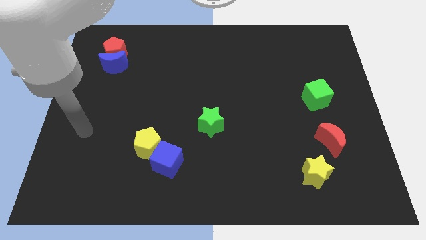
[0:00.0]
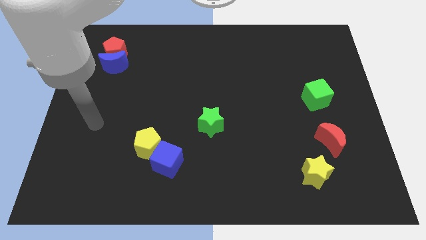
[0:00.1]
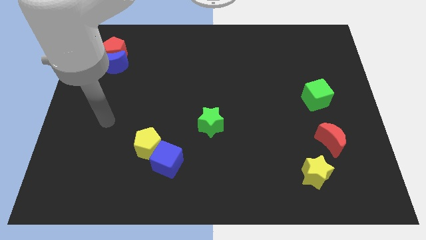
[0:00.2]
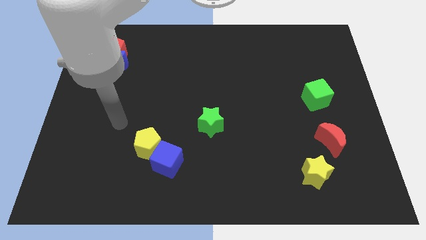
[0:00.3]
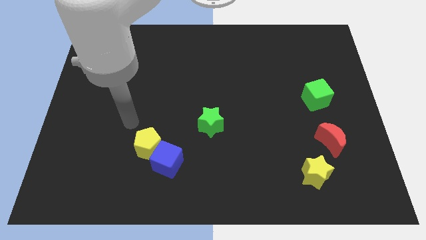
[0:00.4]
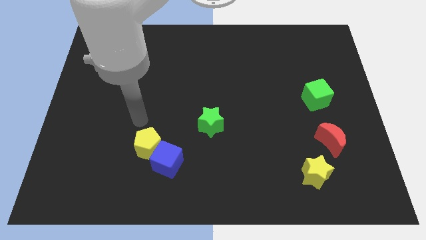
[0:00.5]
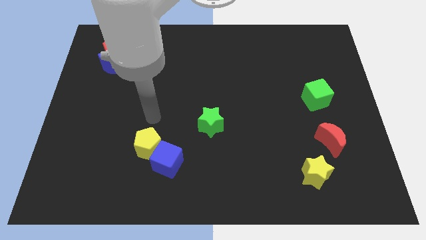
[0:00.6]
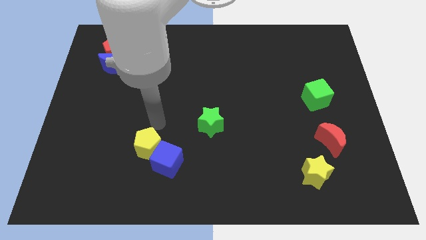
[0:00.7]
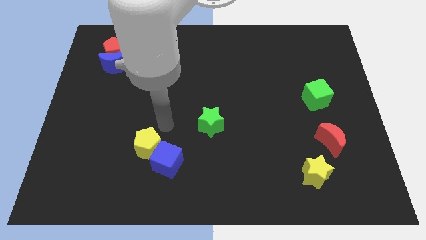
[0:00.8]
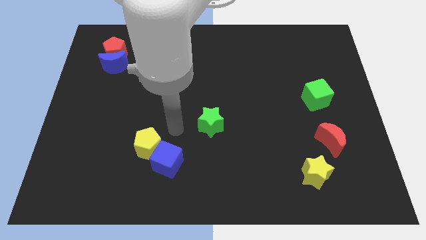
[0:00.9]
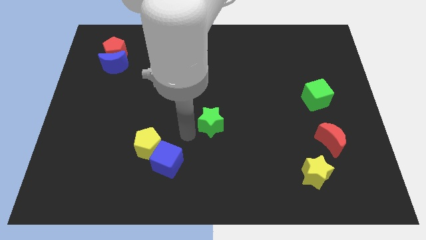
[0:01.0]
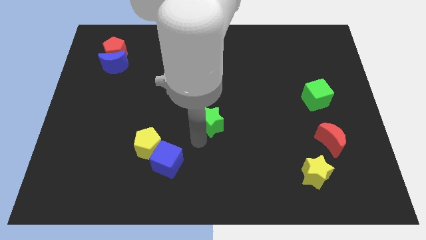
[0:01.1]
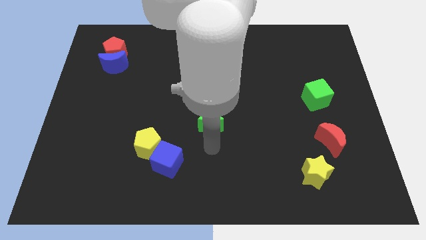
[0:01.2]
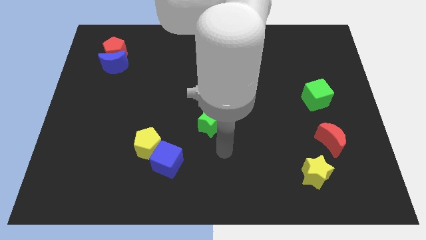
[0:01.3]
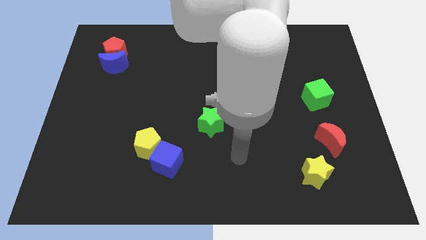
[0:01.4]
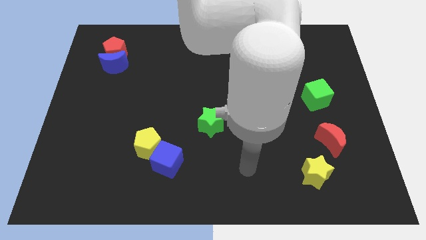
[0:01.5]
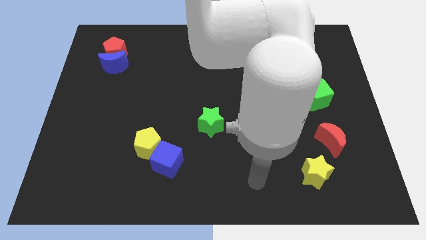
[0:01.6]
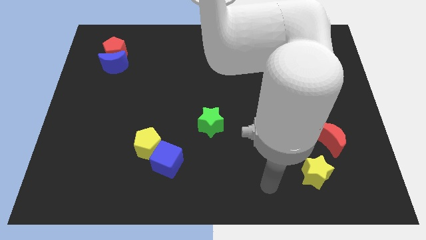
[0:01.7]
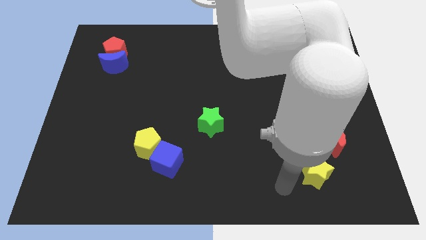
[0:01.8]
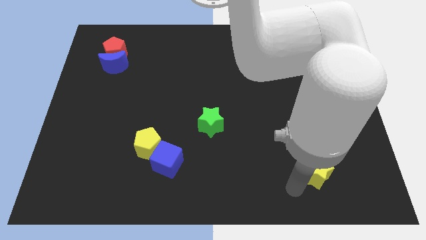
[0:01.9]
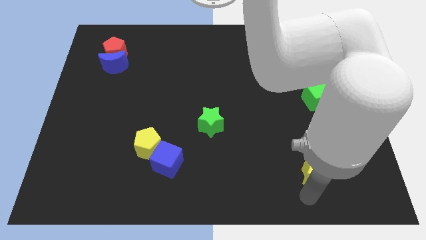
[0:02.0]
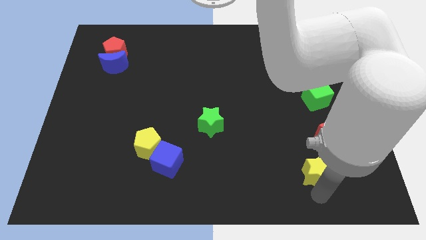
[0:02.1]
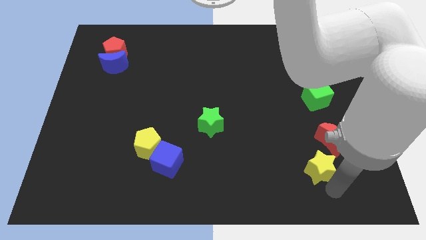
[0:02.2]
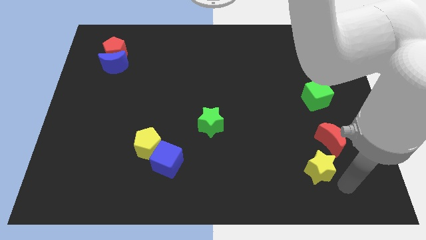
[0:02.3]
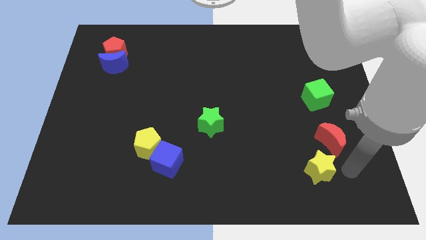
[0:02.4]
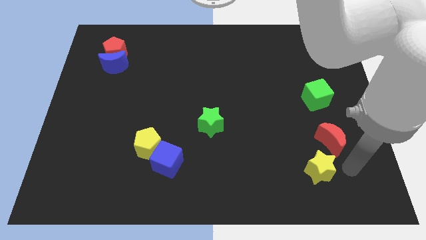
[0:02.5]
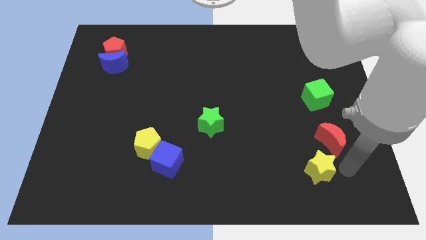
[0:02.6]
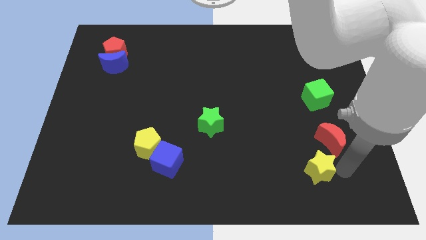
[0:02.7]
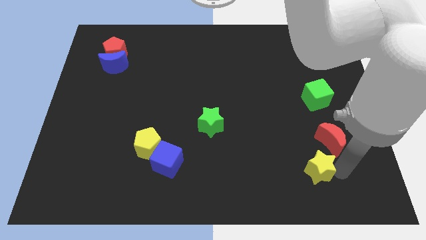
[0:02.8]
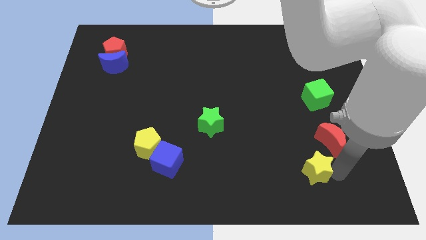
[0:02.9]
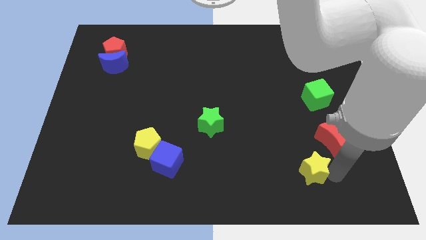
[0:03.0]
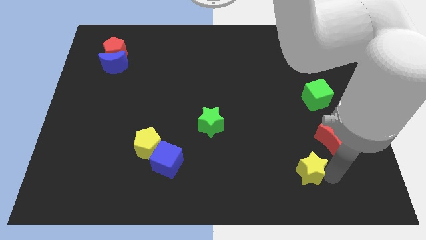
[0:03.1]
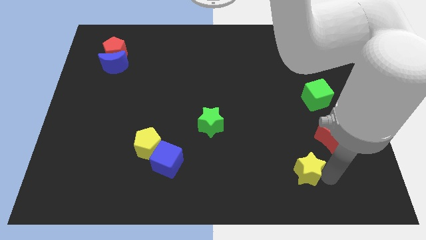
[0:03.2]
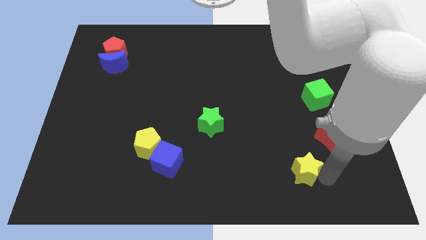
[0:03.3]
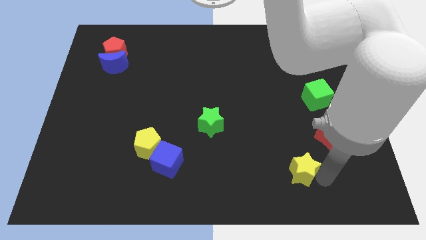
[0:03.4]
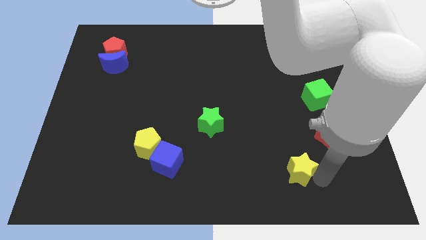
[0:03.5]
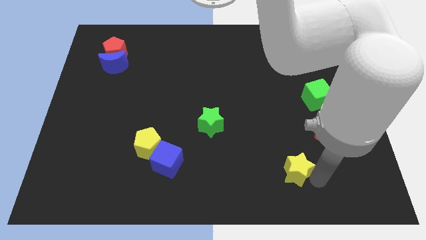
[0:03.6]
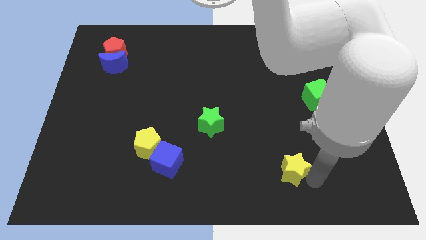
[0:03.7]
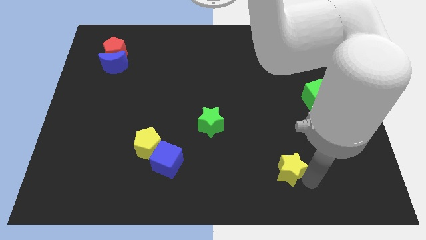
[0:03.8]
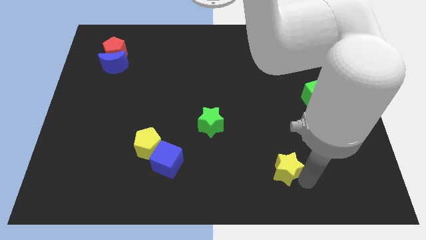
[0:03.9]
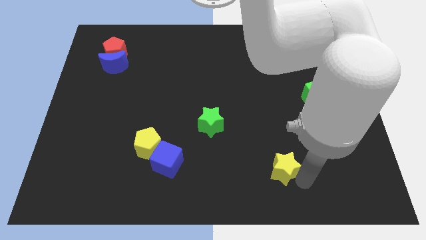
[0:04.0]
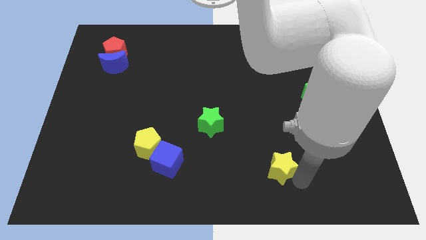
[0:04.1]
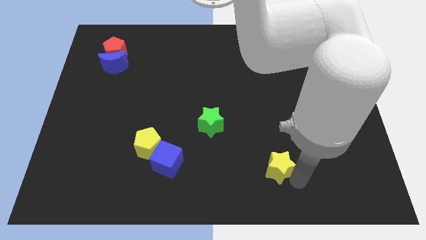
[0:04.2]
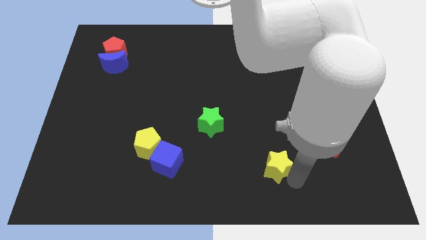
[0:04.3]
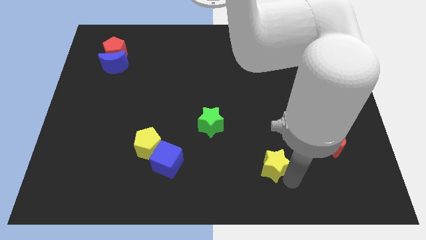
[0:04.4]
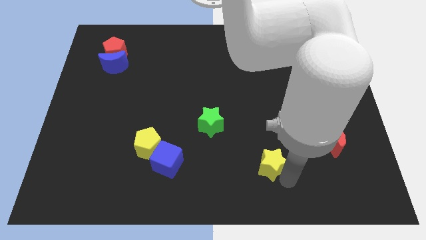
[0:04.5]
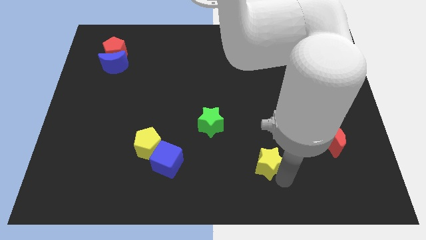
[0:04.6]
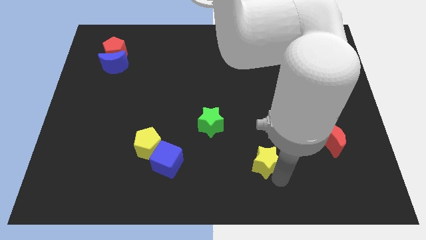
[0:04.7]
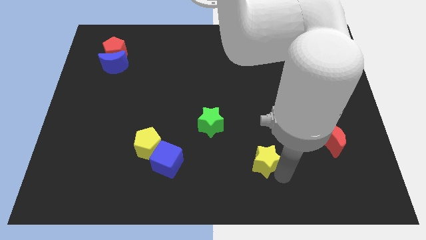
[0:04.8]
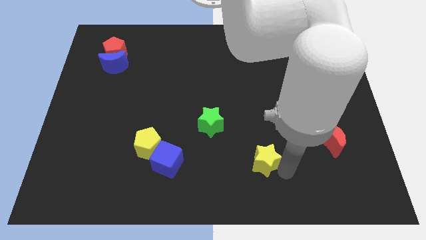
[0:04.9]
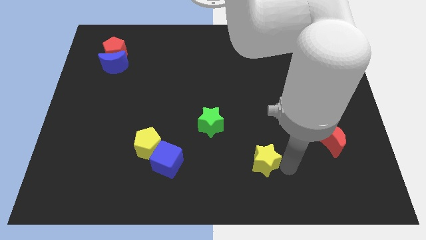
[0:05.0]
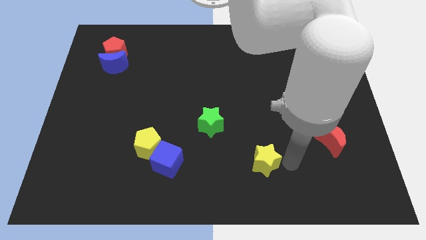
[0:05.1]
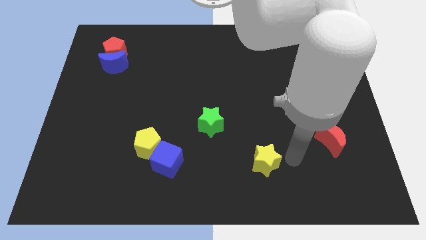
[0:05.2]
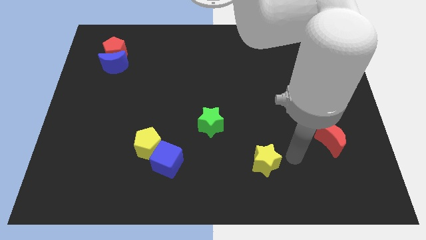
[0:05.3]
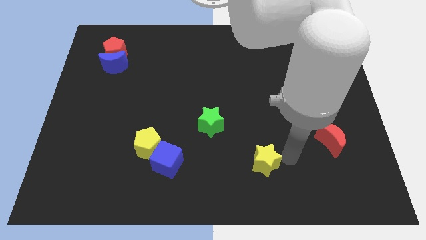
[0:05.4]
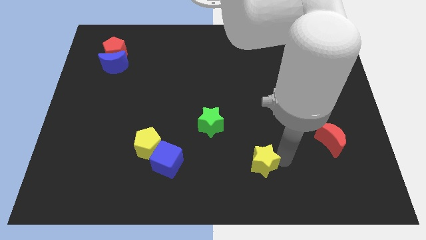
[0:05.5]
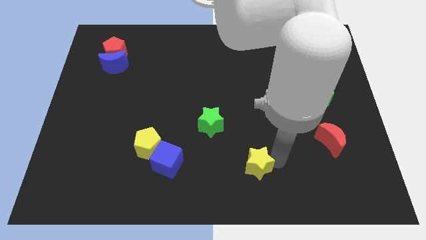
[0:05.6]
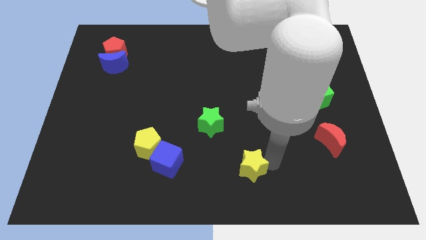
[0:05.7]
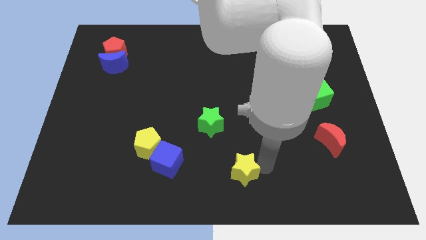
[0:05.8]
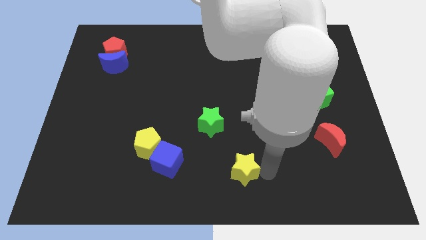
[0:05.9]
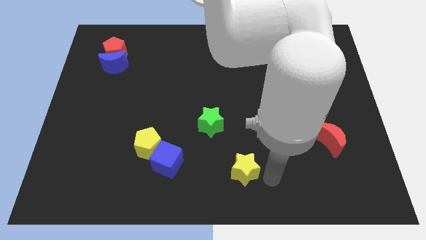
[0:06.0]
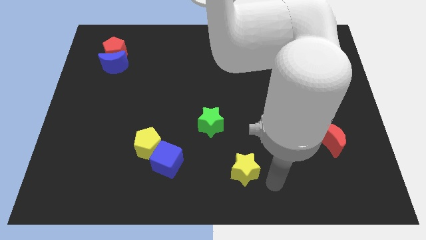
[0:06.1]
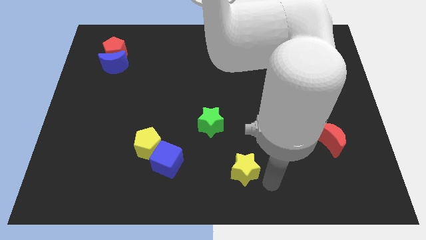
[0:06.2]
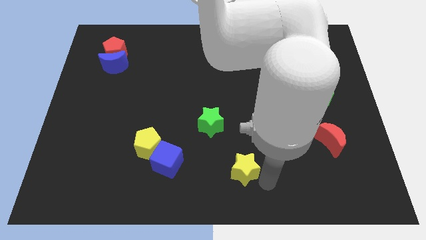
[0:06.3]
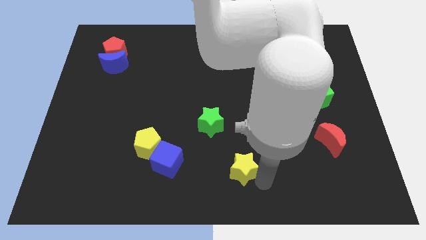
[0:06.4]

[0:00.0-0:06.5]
move the yellow star to the right side of the blue cube
